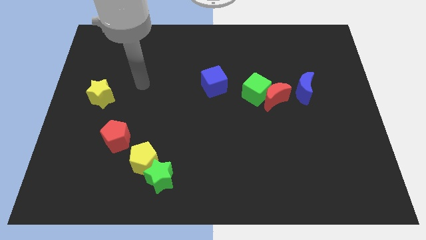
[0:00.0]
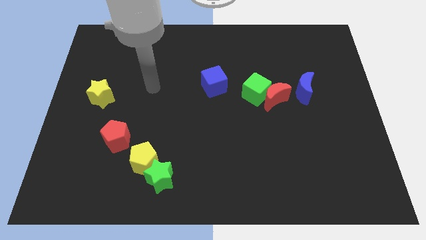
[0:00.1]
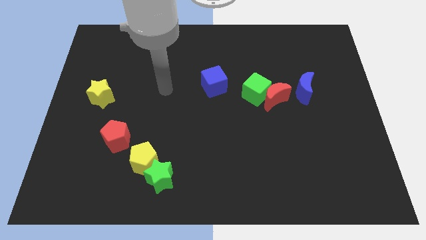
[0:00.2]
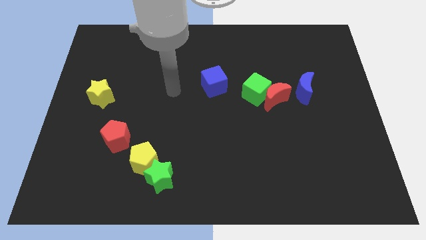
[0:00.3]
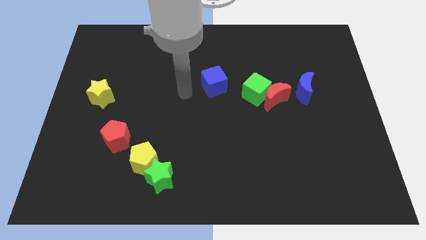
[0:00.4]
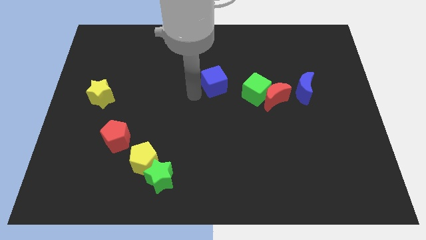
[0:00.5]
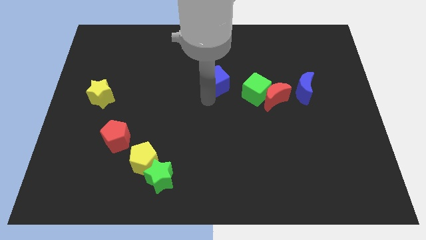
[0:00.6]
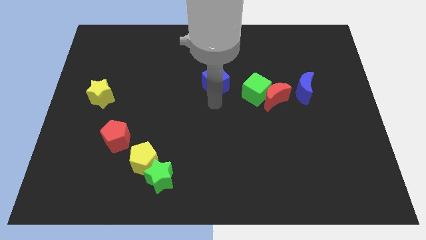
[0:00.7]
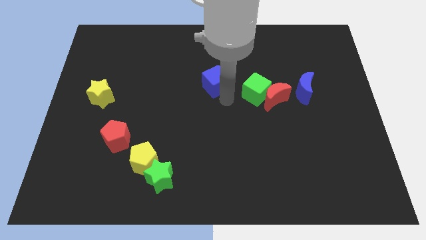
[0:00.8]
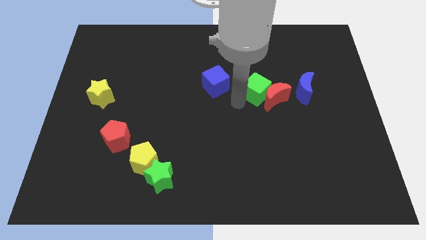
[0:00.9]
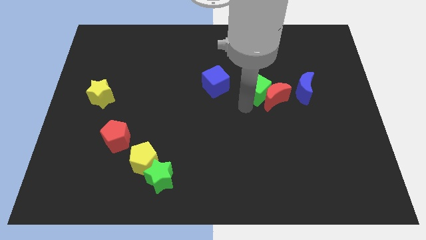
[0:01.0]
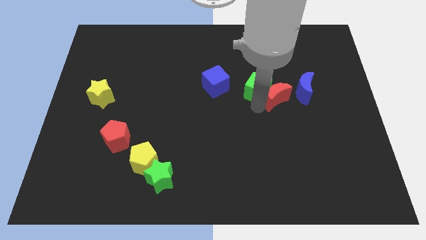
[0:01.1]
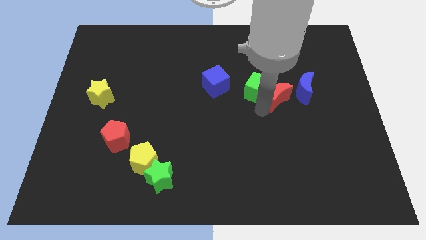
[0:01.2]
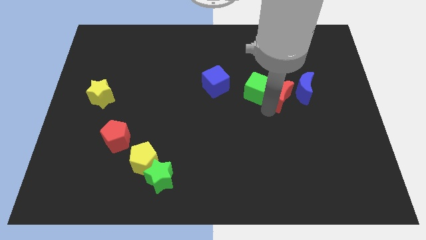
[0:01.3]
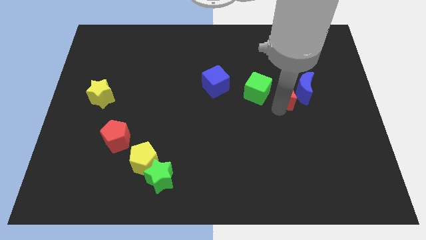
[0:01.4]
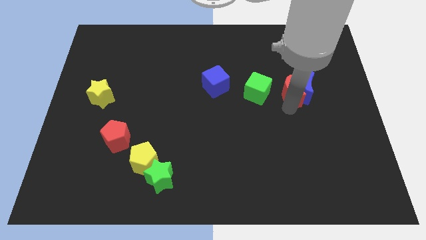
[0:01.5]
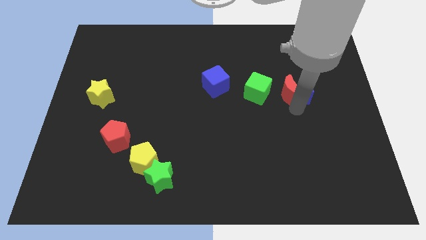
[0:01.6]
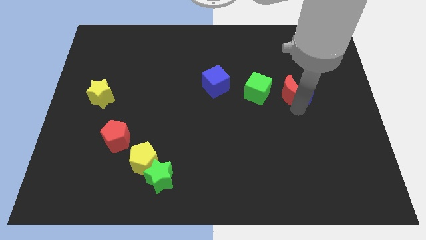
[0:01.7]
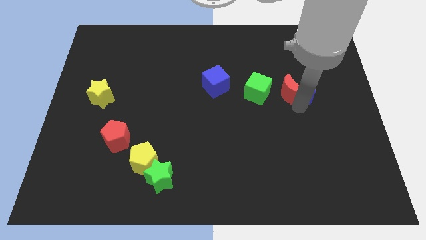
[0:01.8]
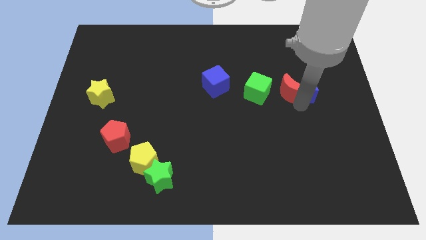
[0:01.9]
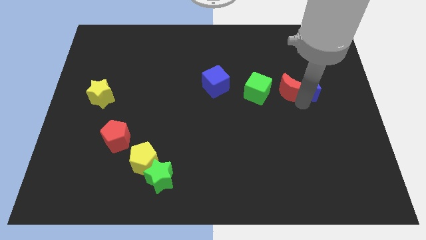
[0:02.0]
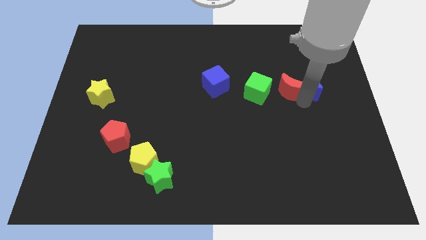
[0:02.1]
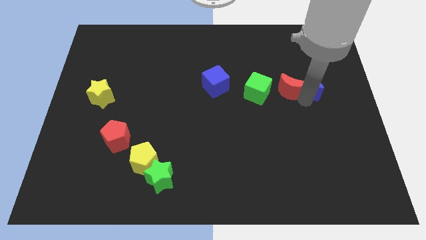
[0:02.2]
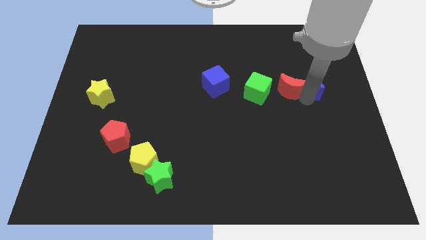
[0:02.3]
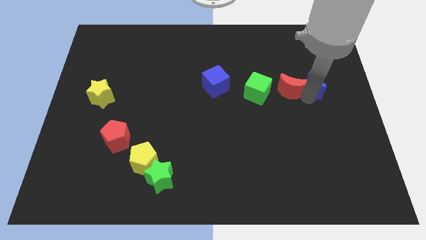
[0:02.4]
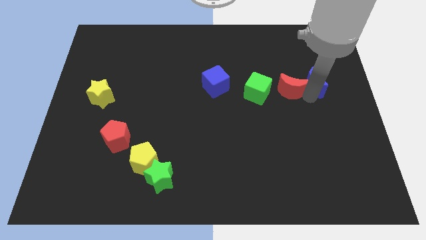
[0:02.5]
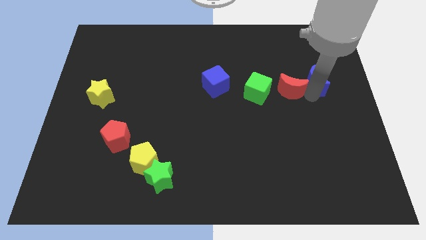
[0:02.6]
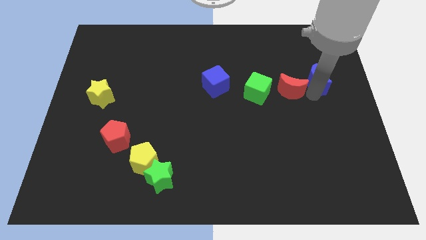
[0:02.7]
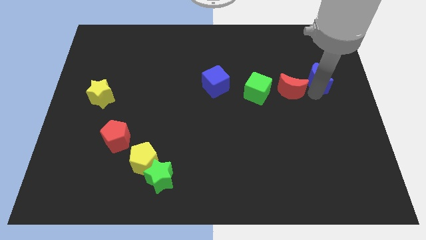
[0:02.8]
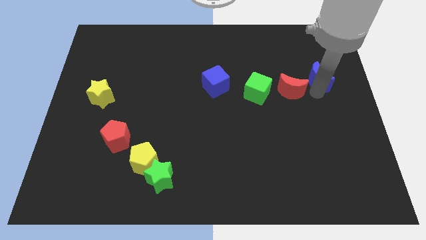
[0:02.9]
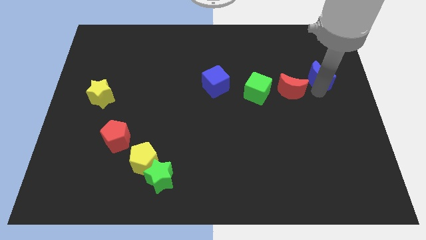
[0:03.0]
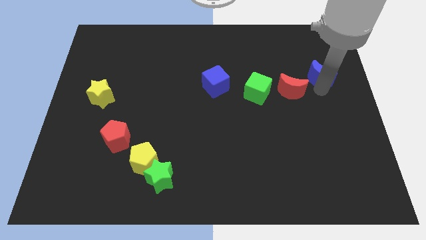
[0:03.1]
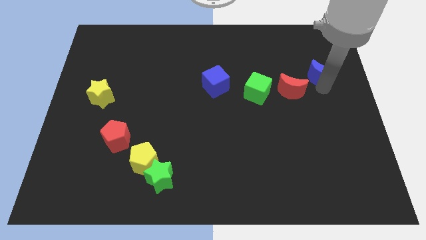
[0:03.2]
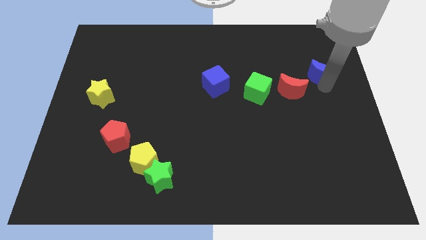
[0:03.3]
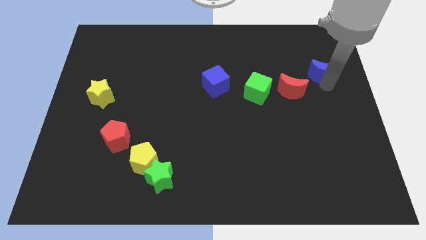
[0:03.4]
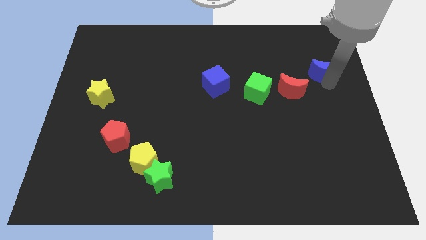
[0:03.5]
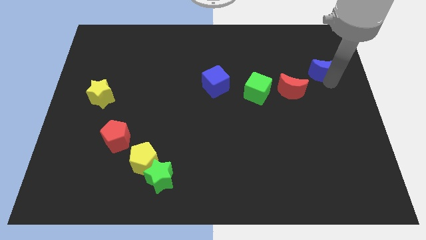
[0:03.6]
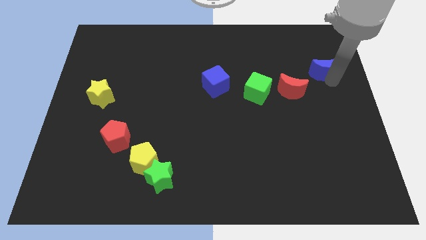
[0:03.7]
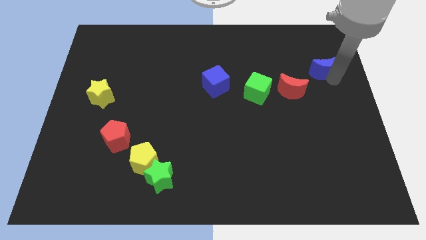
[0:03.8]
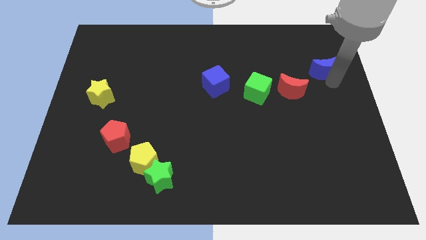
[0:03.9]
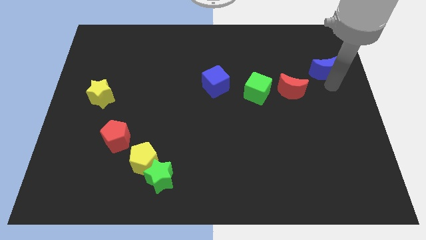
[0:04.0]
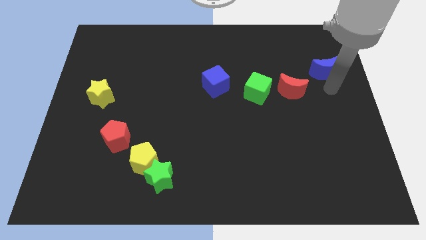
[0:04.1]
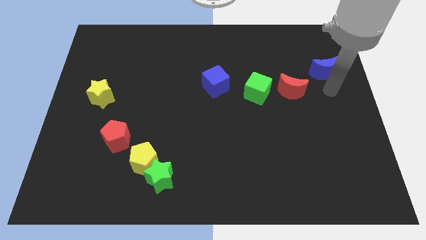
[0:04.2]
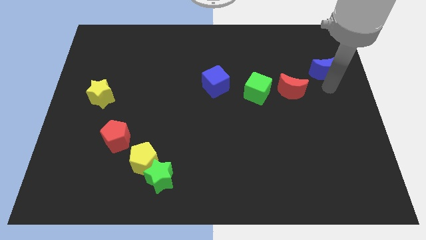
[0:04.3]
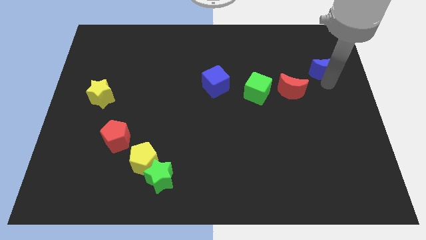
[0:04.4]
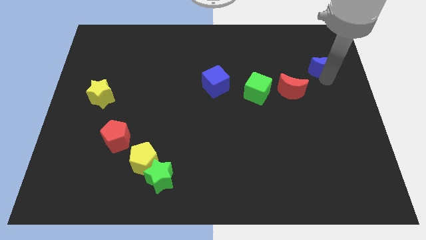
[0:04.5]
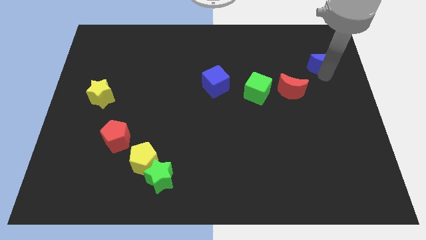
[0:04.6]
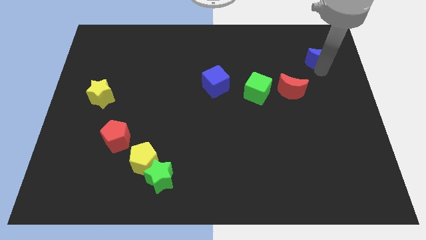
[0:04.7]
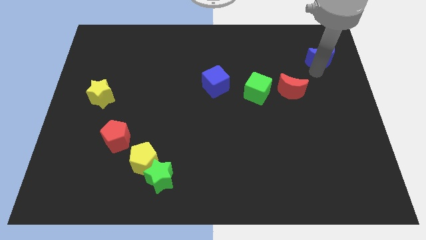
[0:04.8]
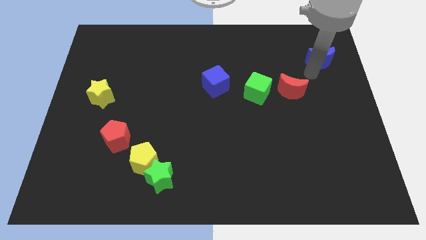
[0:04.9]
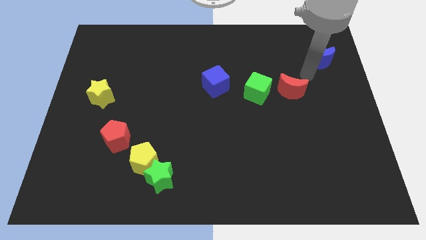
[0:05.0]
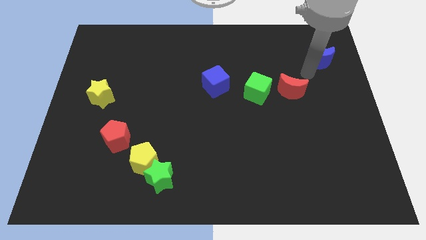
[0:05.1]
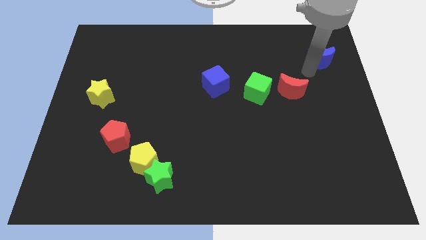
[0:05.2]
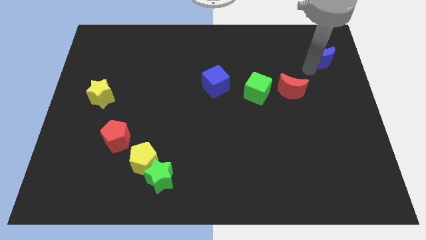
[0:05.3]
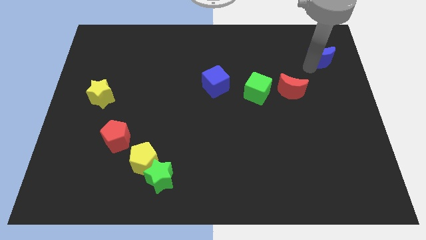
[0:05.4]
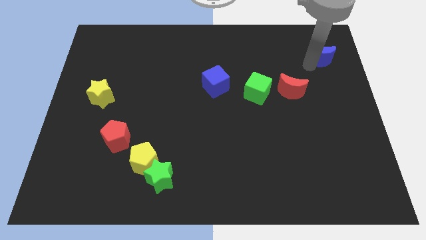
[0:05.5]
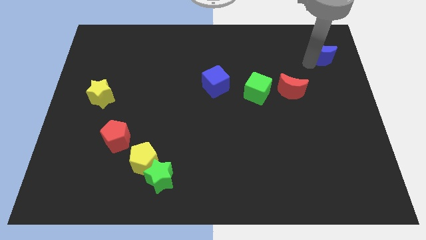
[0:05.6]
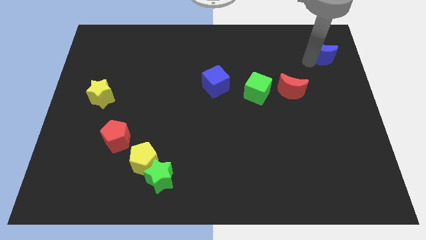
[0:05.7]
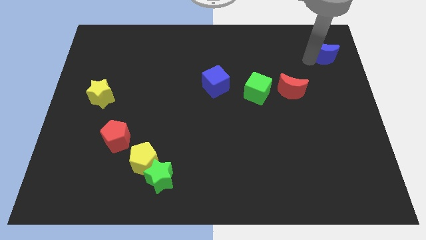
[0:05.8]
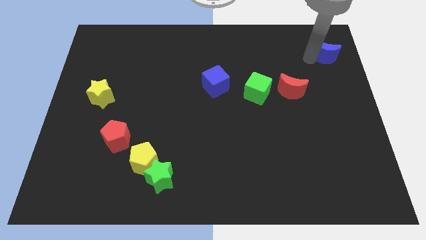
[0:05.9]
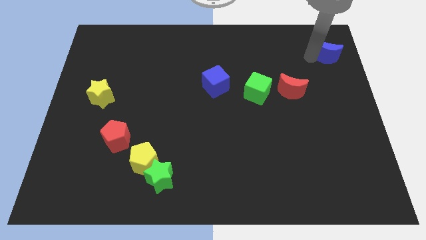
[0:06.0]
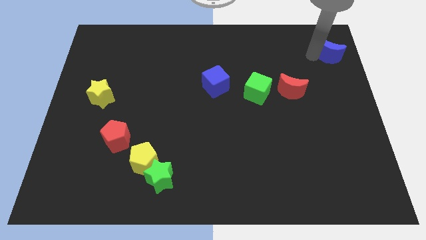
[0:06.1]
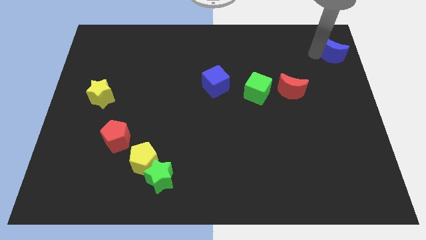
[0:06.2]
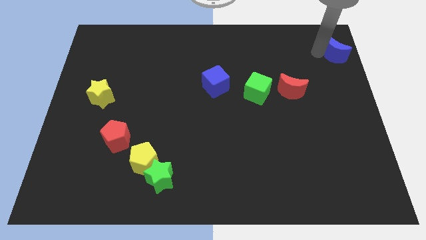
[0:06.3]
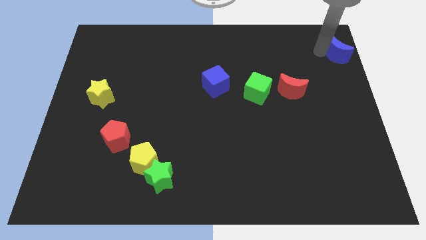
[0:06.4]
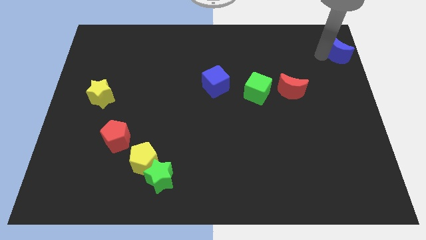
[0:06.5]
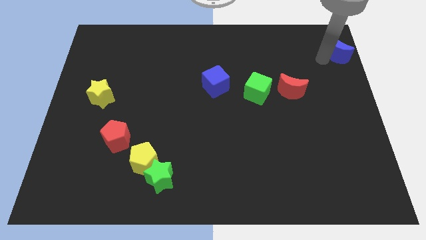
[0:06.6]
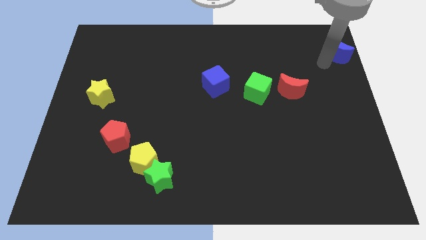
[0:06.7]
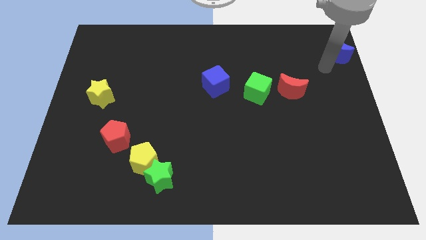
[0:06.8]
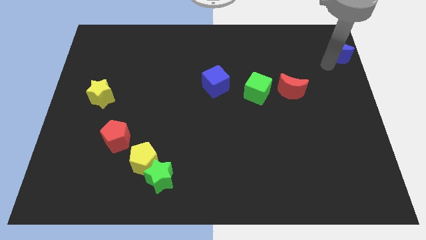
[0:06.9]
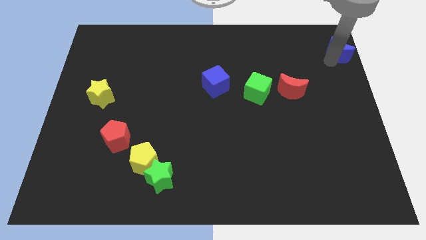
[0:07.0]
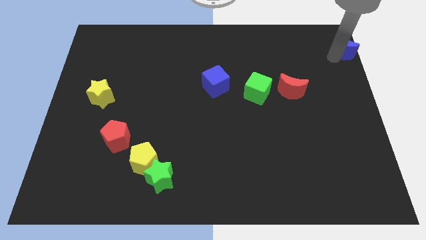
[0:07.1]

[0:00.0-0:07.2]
put the blue moon to the top right
